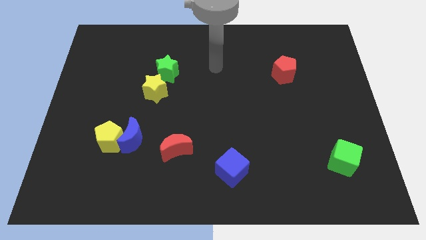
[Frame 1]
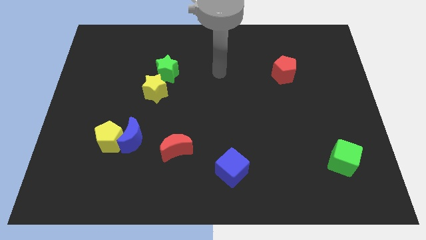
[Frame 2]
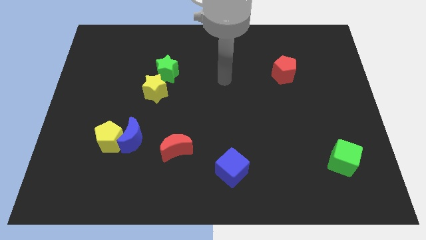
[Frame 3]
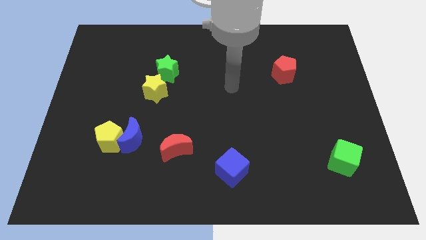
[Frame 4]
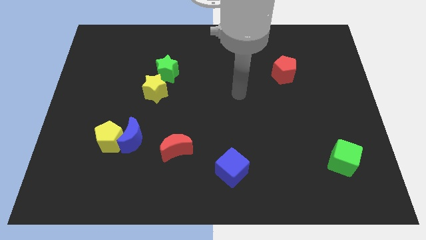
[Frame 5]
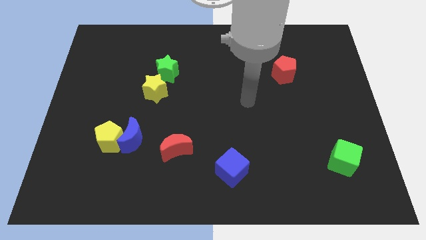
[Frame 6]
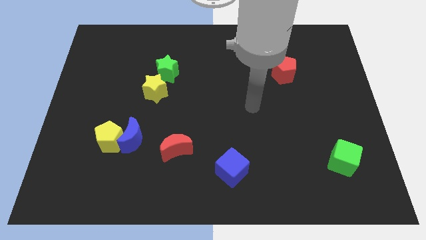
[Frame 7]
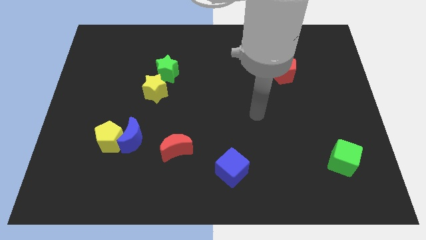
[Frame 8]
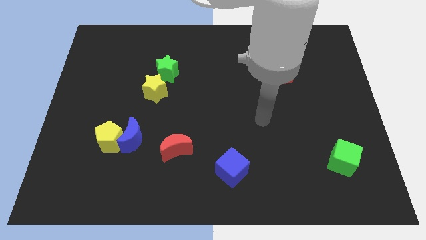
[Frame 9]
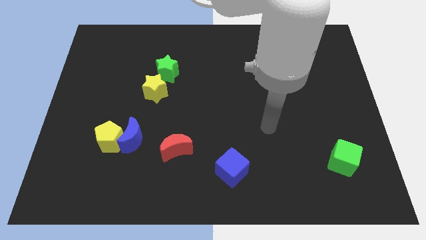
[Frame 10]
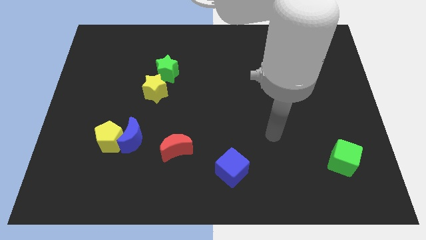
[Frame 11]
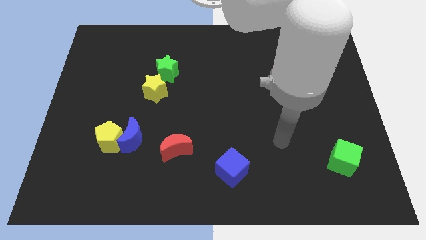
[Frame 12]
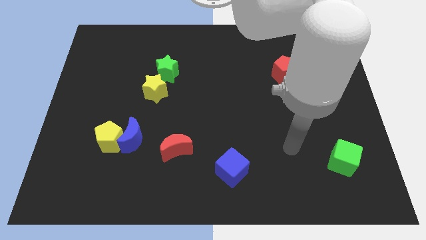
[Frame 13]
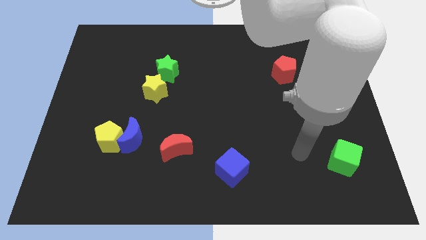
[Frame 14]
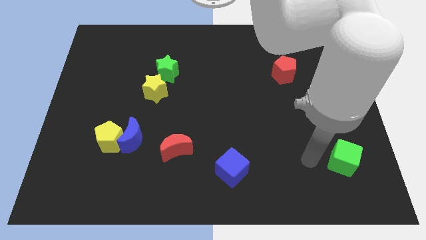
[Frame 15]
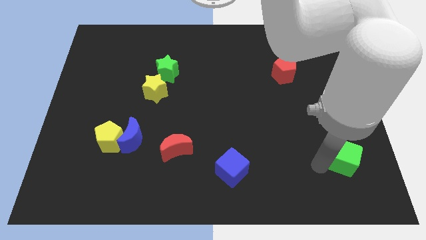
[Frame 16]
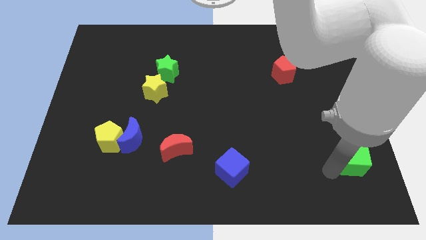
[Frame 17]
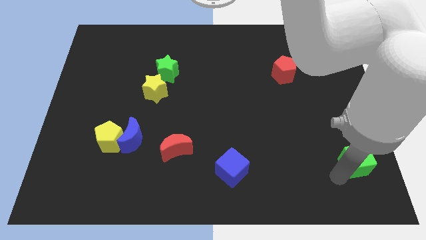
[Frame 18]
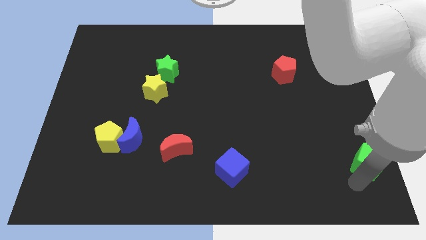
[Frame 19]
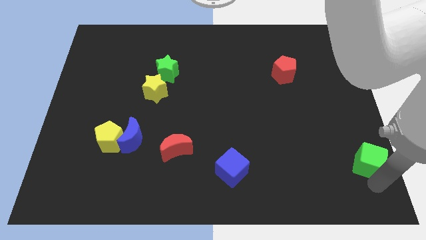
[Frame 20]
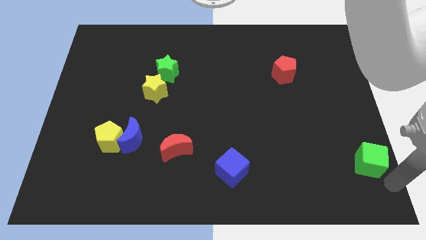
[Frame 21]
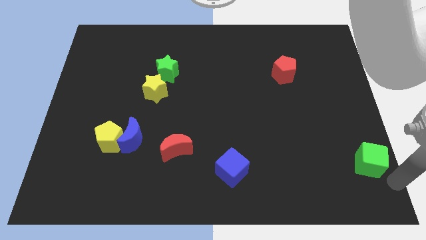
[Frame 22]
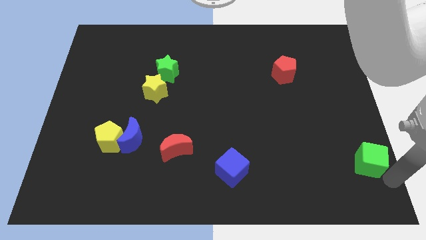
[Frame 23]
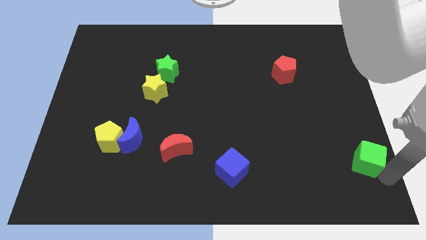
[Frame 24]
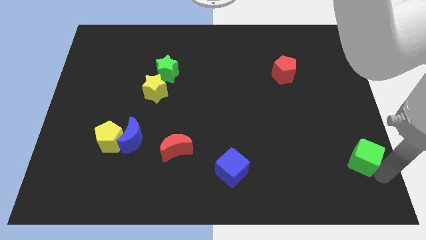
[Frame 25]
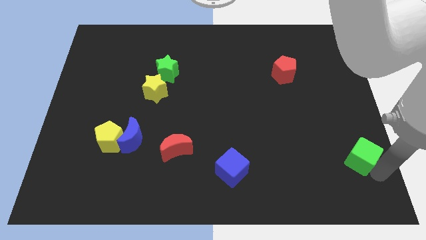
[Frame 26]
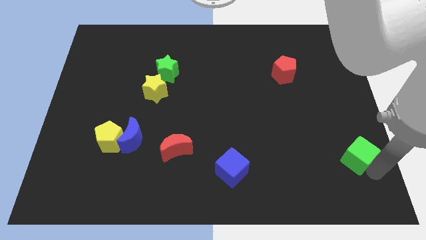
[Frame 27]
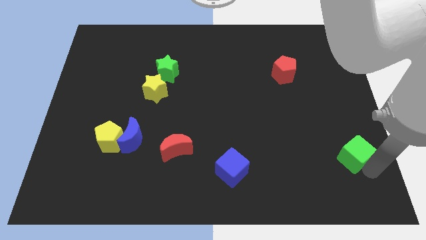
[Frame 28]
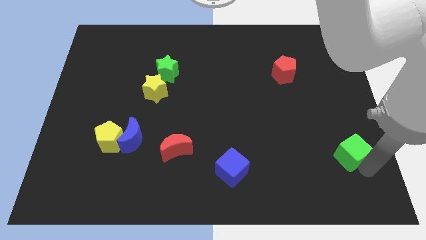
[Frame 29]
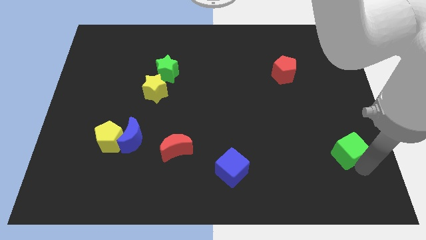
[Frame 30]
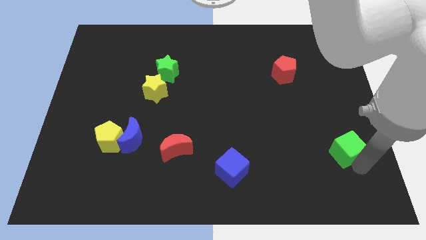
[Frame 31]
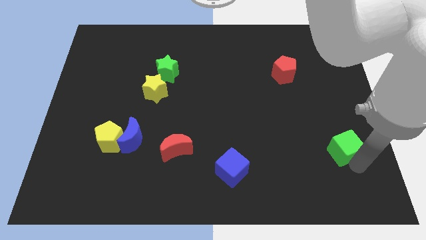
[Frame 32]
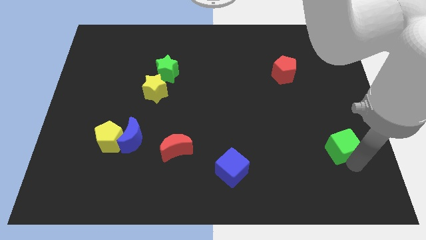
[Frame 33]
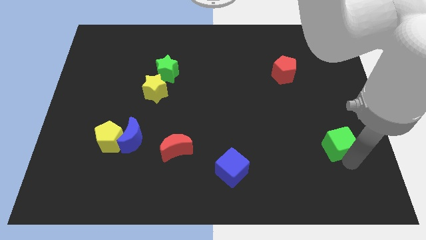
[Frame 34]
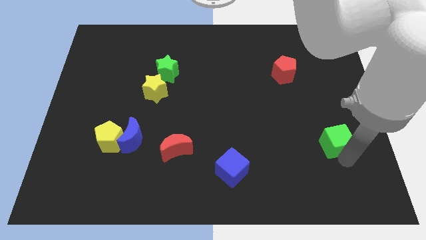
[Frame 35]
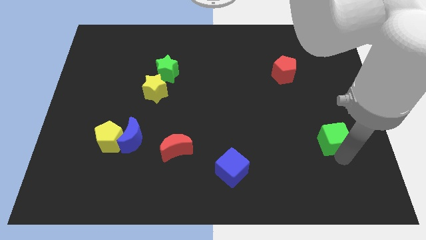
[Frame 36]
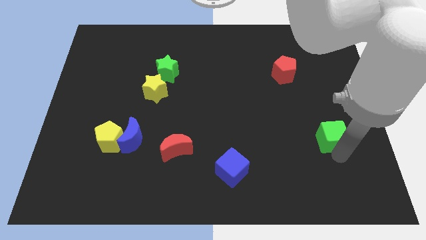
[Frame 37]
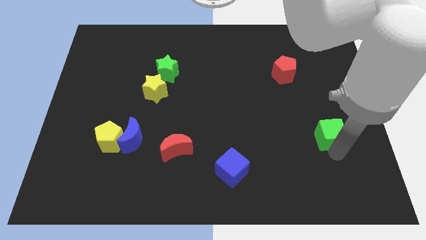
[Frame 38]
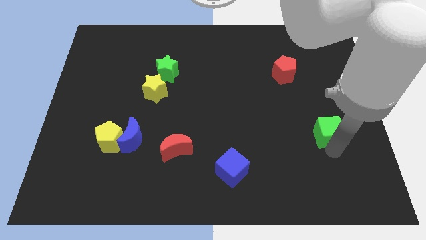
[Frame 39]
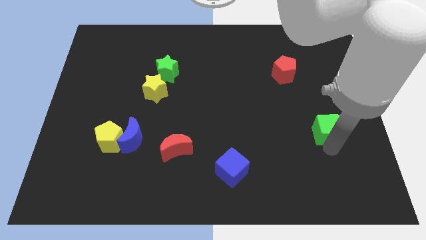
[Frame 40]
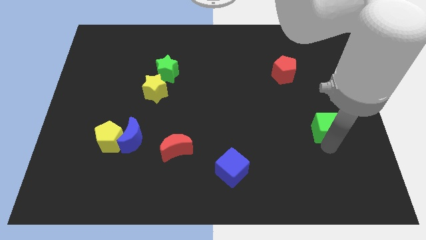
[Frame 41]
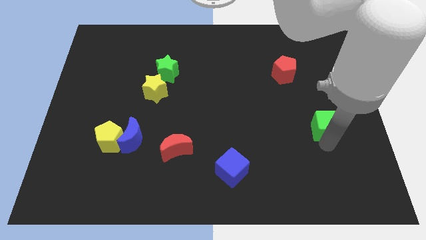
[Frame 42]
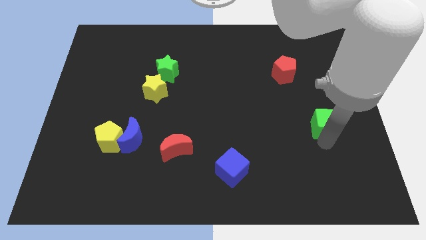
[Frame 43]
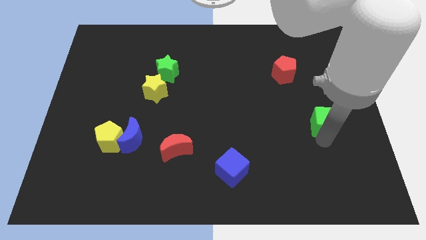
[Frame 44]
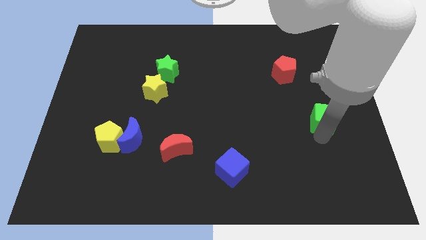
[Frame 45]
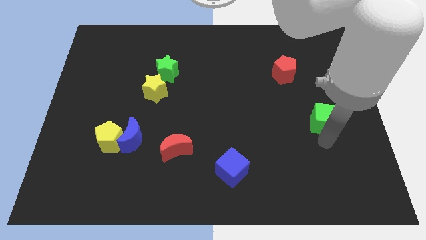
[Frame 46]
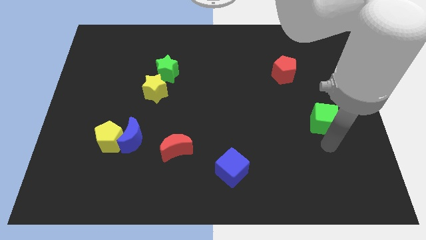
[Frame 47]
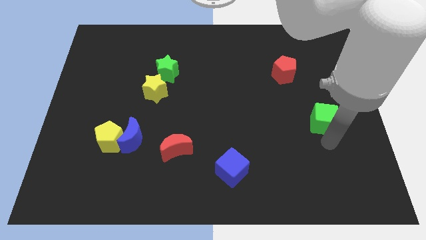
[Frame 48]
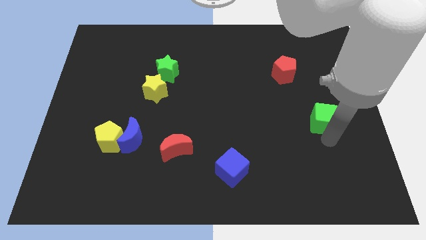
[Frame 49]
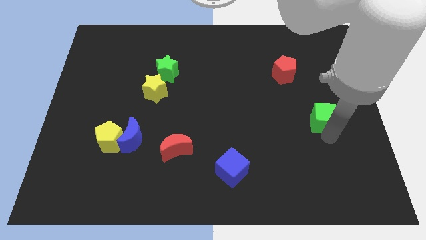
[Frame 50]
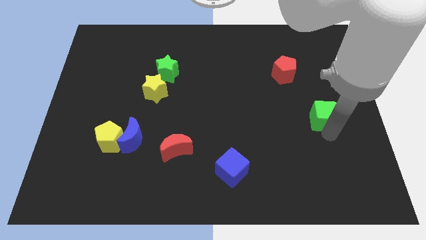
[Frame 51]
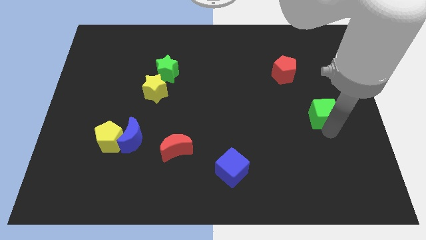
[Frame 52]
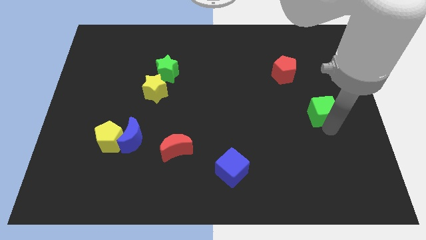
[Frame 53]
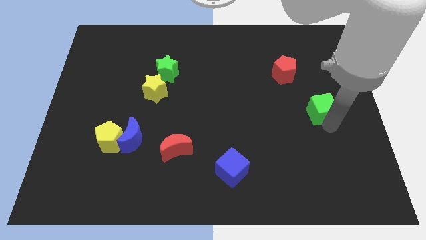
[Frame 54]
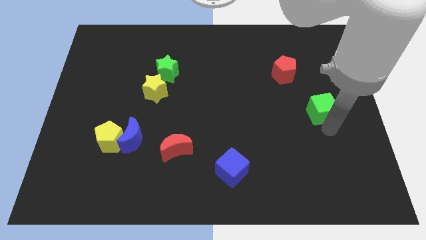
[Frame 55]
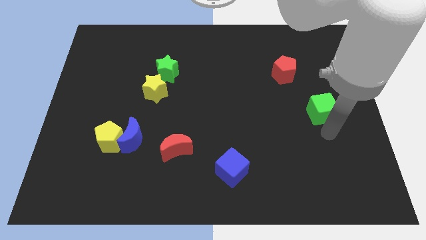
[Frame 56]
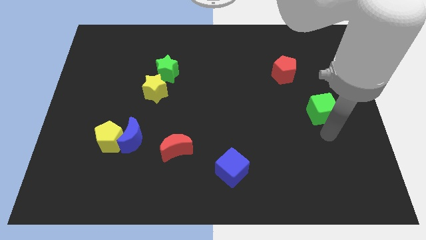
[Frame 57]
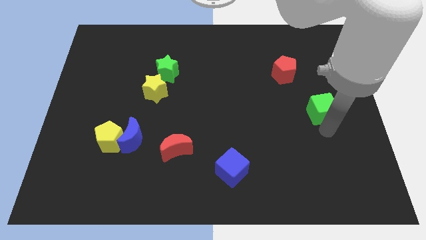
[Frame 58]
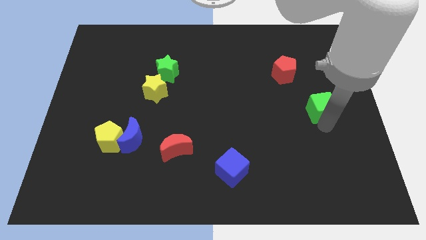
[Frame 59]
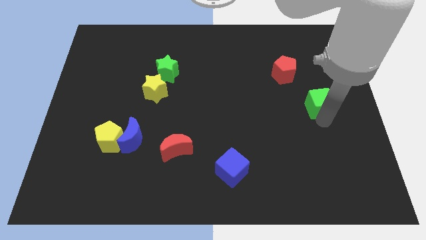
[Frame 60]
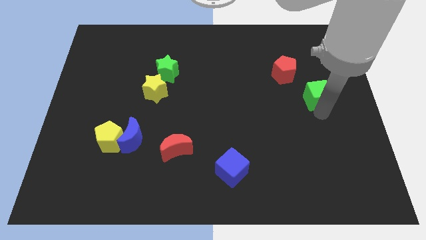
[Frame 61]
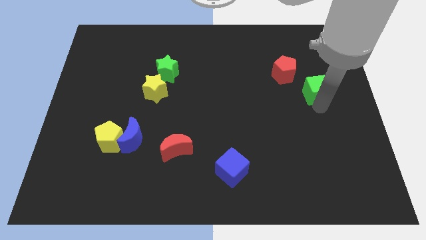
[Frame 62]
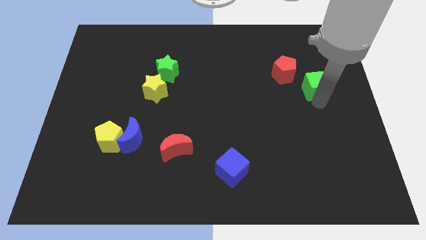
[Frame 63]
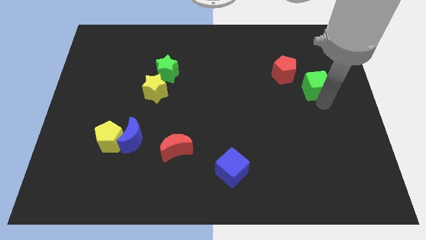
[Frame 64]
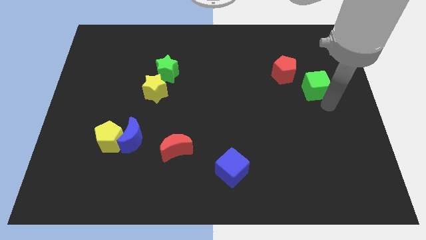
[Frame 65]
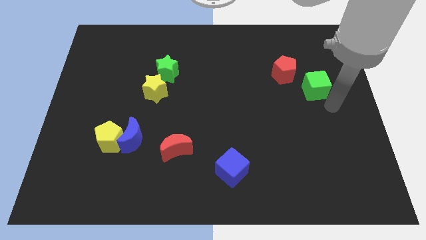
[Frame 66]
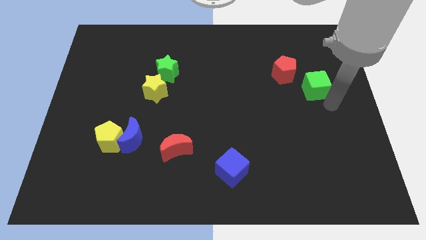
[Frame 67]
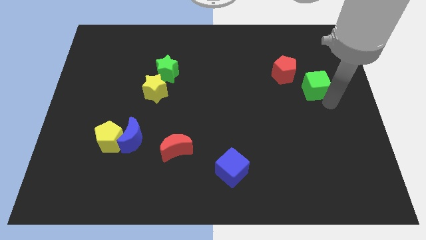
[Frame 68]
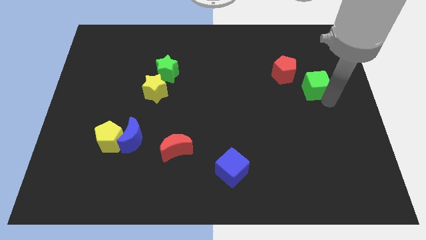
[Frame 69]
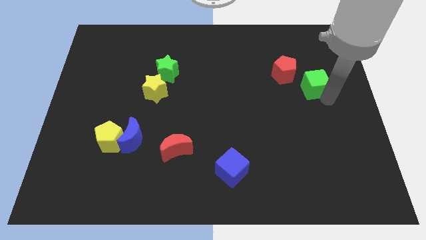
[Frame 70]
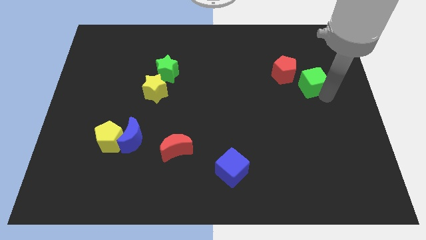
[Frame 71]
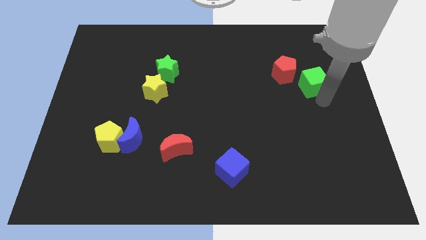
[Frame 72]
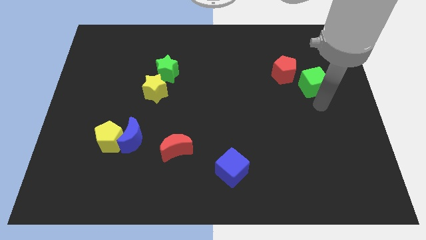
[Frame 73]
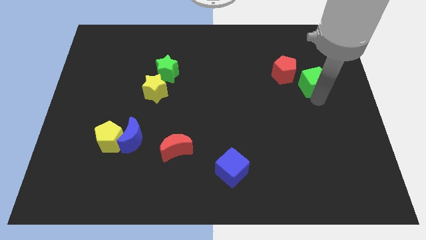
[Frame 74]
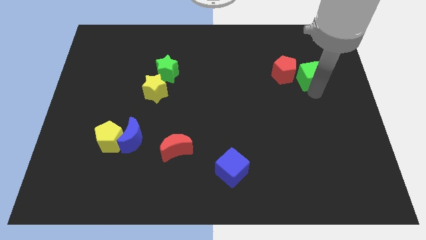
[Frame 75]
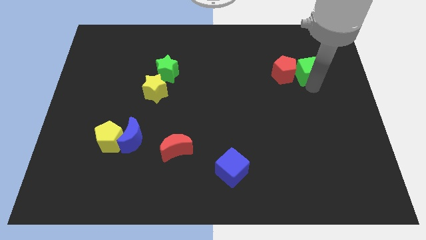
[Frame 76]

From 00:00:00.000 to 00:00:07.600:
push the green cube to the top right side of the red pentagon
